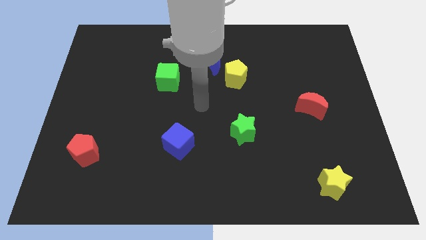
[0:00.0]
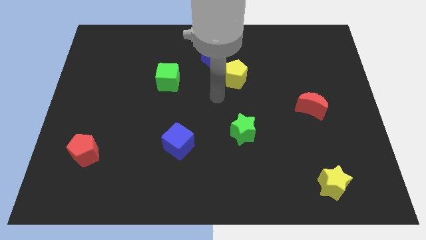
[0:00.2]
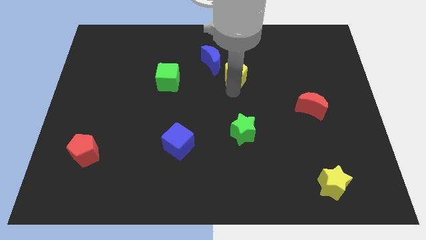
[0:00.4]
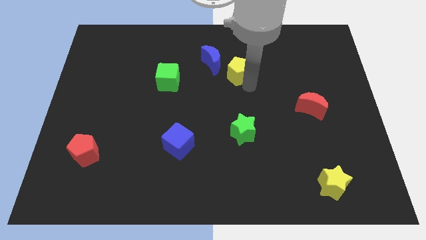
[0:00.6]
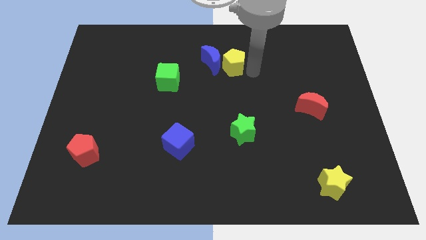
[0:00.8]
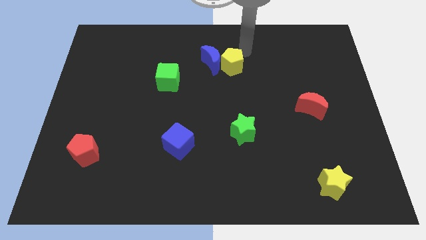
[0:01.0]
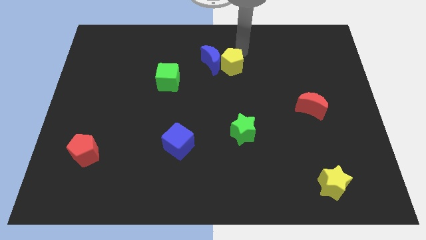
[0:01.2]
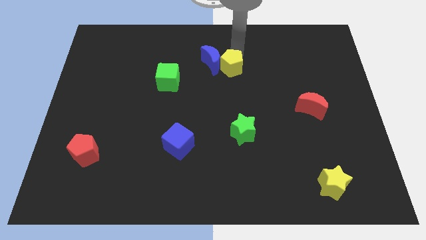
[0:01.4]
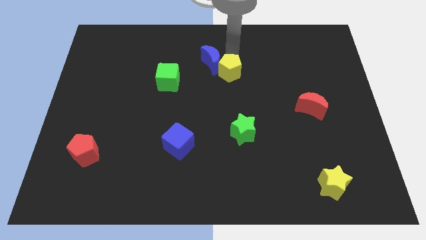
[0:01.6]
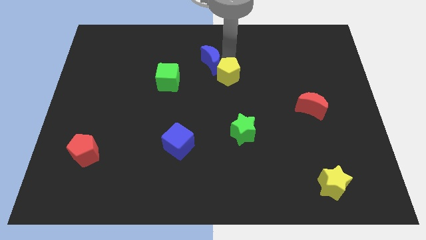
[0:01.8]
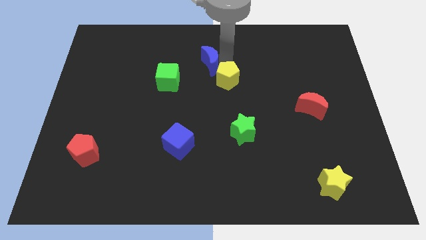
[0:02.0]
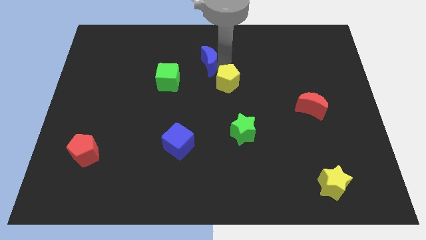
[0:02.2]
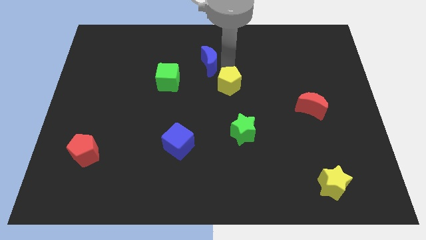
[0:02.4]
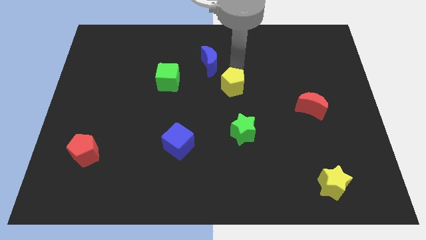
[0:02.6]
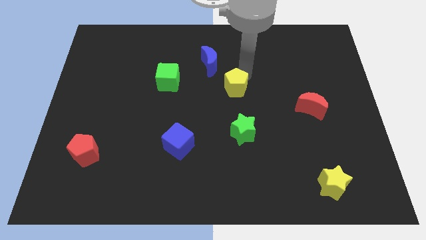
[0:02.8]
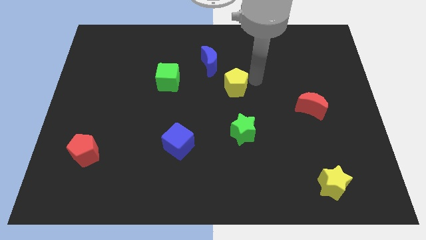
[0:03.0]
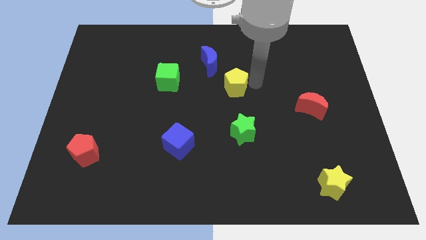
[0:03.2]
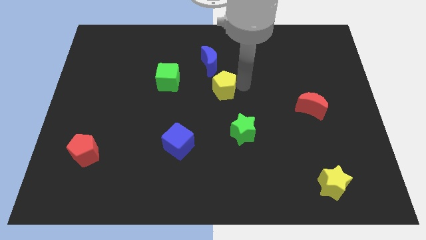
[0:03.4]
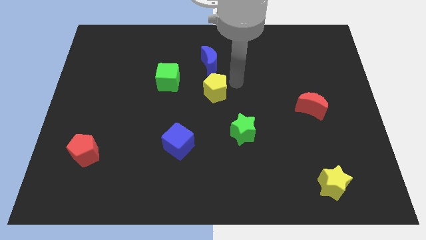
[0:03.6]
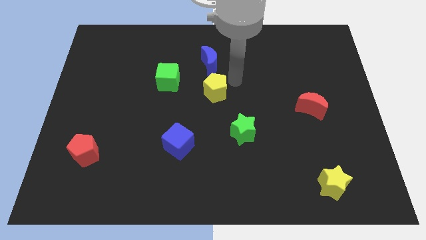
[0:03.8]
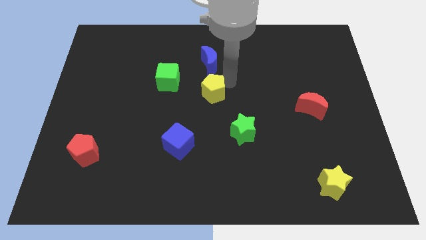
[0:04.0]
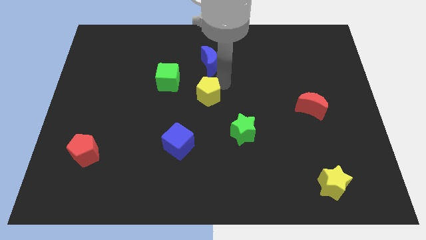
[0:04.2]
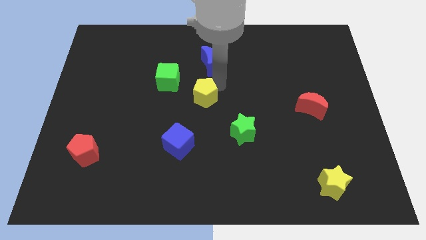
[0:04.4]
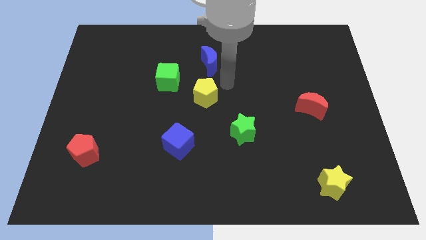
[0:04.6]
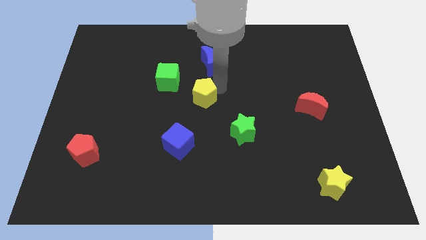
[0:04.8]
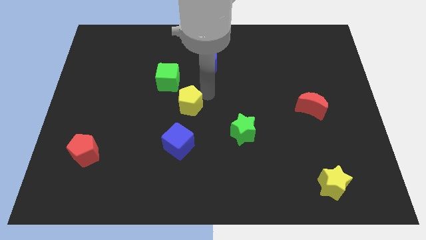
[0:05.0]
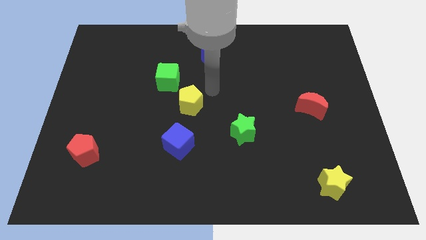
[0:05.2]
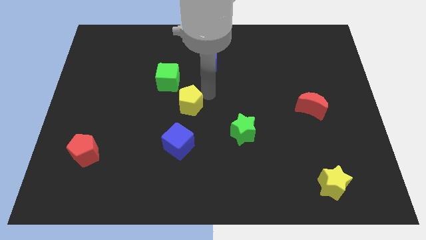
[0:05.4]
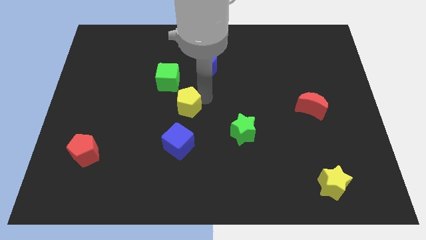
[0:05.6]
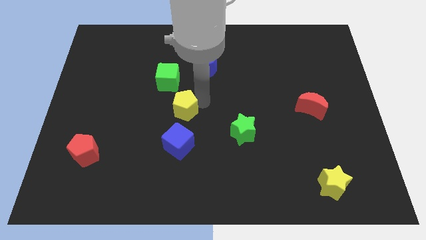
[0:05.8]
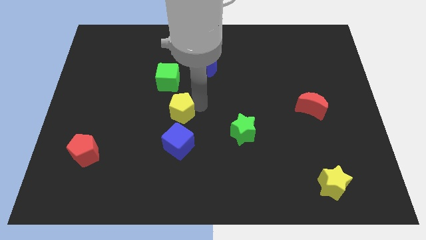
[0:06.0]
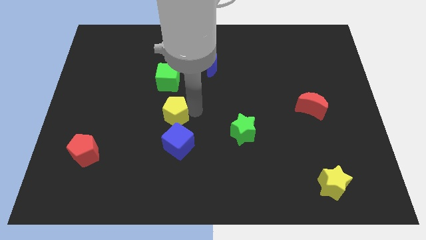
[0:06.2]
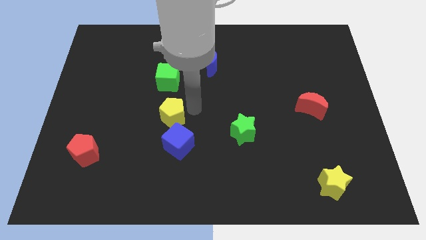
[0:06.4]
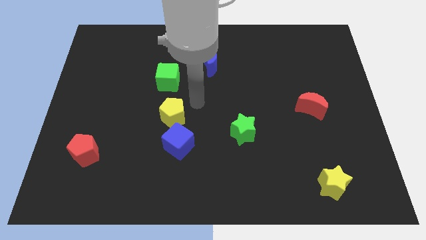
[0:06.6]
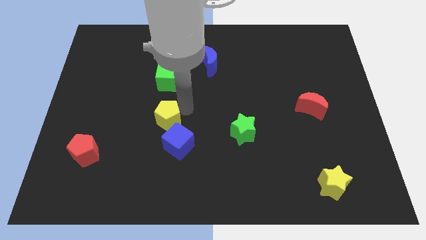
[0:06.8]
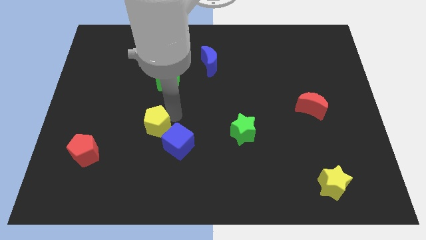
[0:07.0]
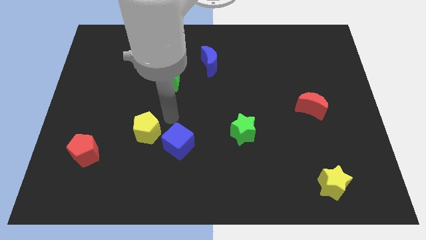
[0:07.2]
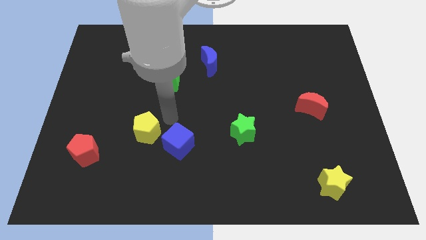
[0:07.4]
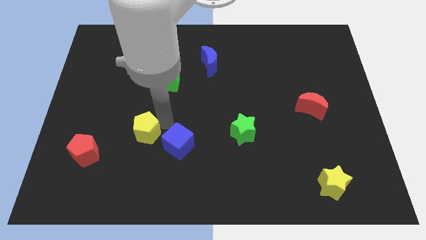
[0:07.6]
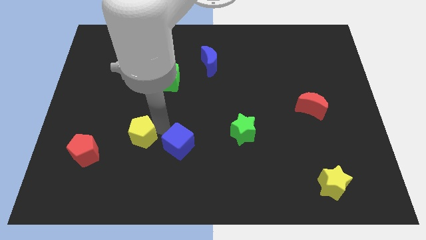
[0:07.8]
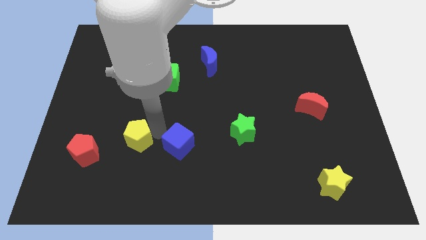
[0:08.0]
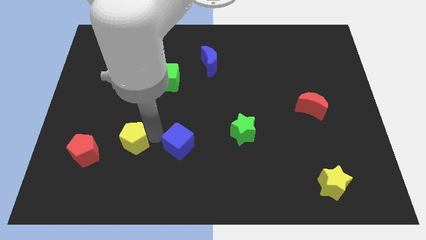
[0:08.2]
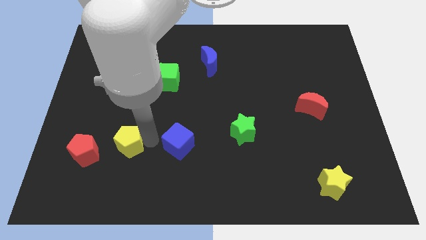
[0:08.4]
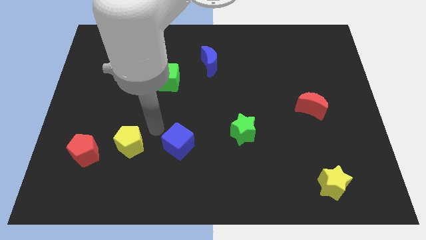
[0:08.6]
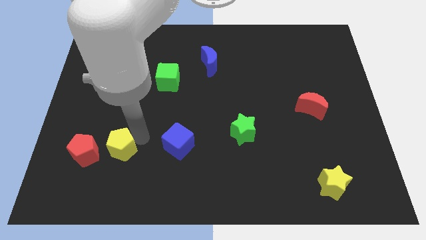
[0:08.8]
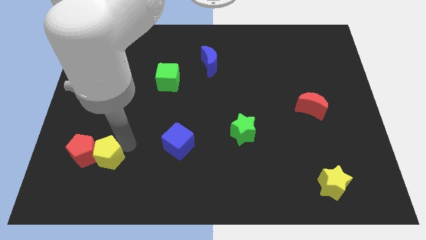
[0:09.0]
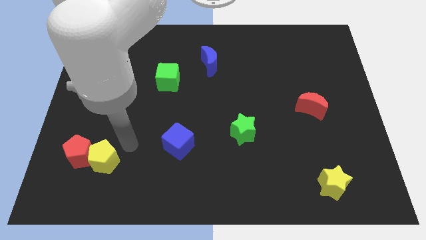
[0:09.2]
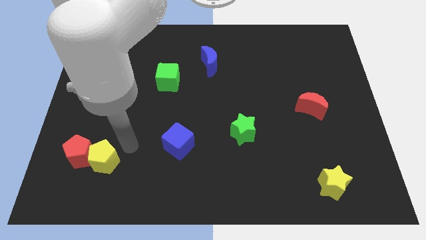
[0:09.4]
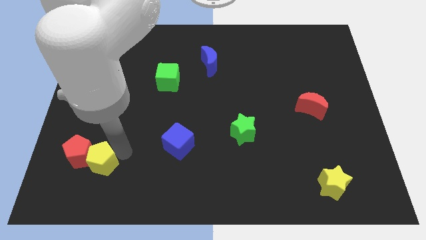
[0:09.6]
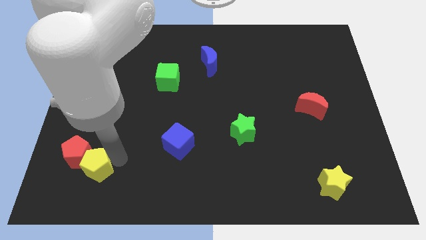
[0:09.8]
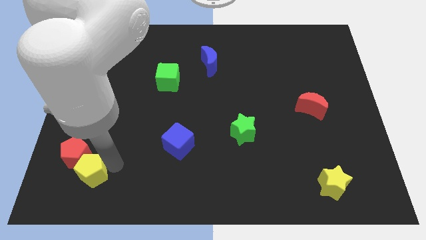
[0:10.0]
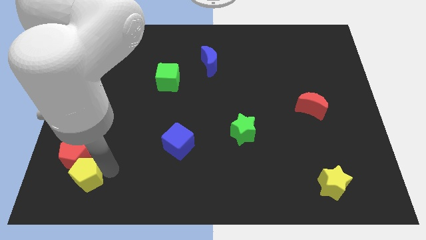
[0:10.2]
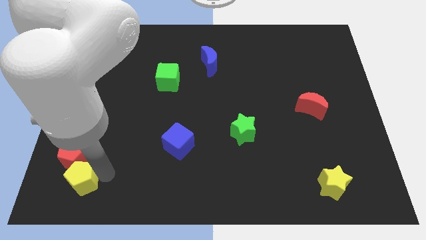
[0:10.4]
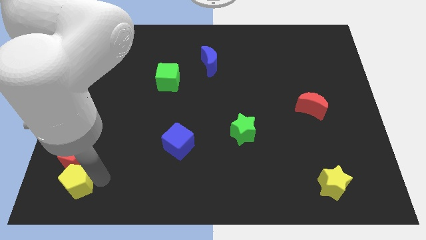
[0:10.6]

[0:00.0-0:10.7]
move the yellow pentagon to the bottom left corner

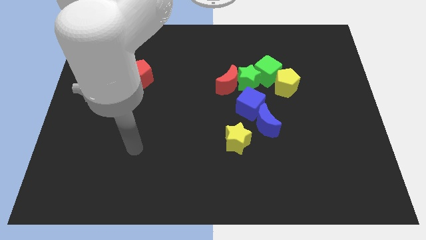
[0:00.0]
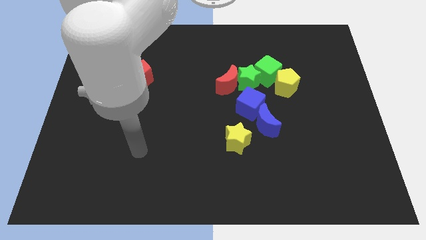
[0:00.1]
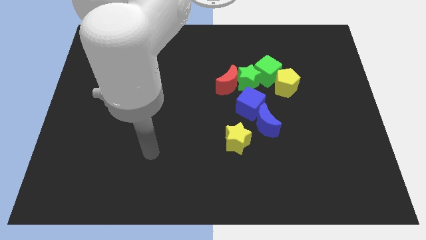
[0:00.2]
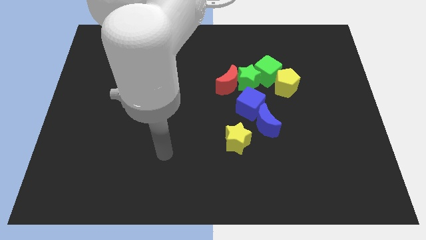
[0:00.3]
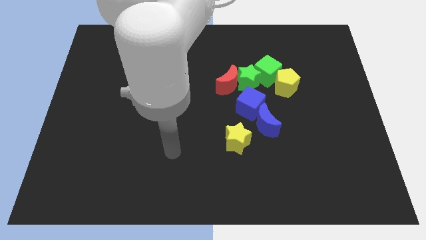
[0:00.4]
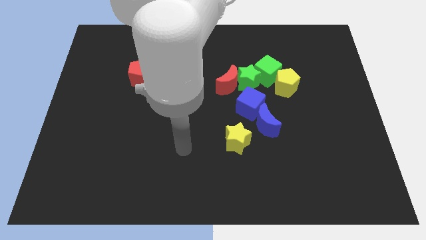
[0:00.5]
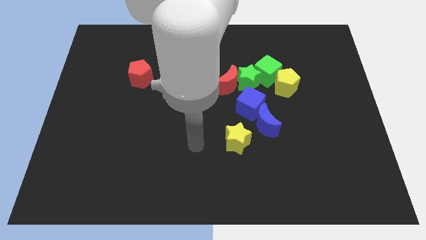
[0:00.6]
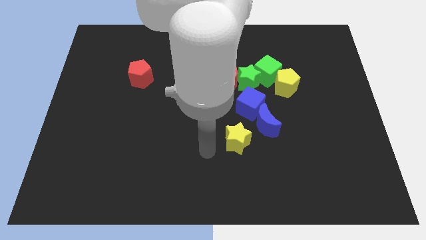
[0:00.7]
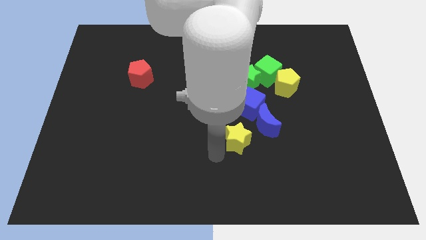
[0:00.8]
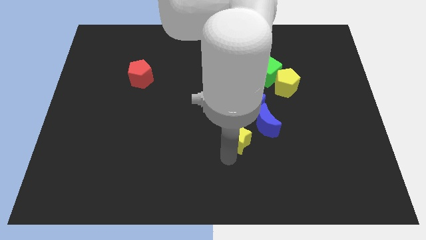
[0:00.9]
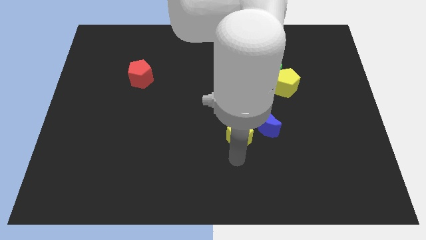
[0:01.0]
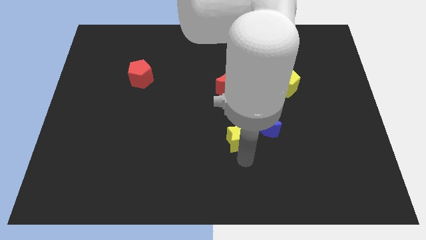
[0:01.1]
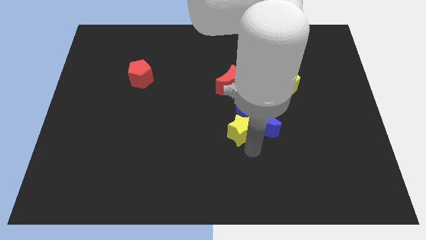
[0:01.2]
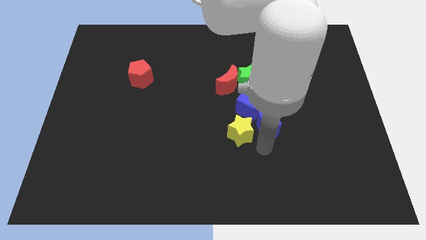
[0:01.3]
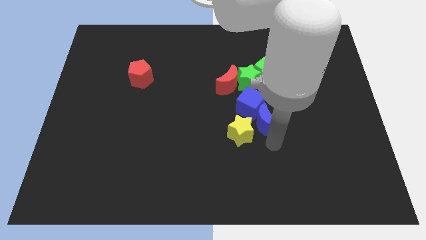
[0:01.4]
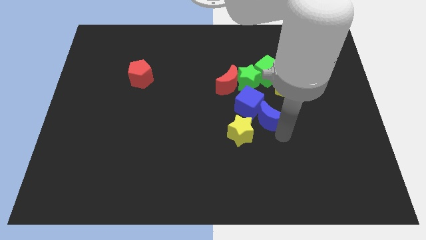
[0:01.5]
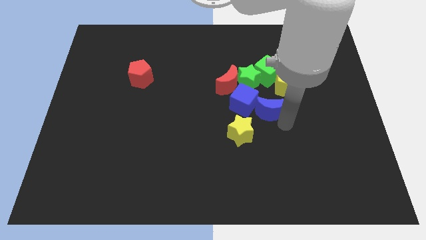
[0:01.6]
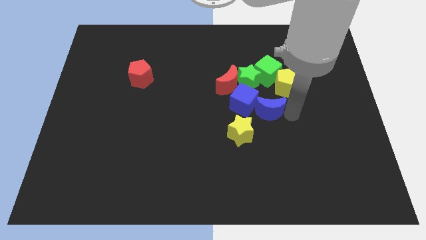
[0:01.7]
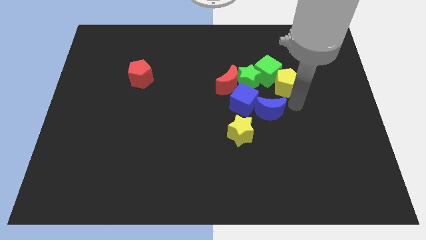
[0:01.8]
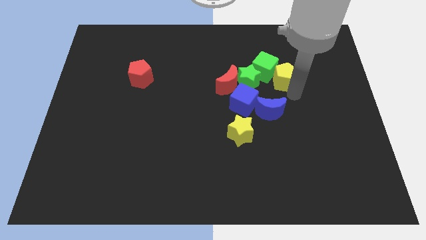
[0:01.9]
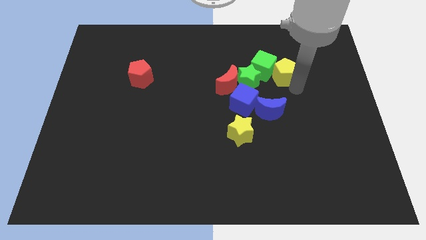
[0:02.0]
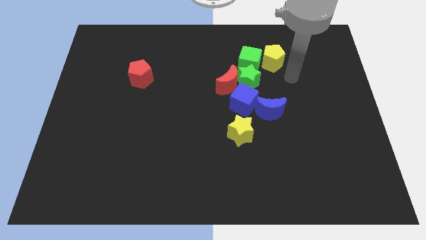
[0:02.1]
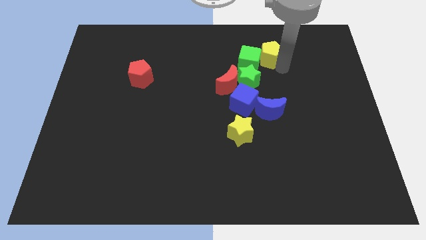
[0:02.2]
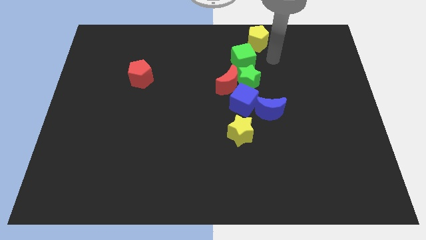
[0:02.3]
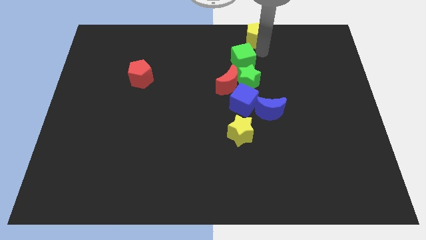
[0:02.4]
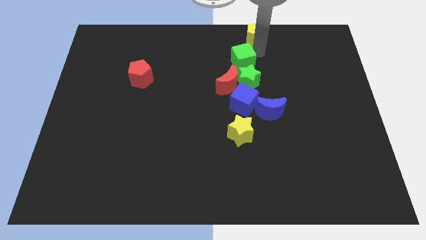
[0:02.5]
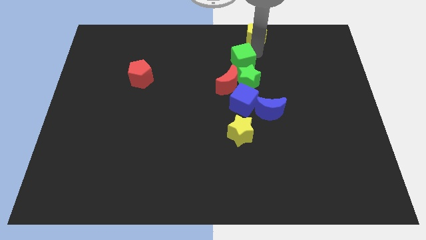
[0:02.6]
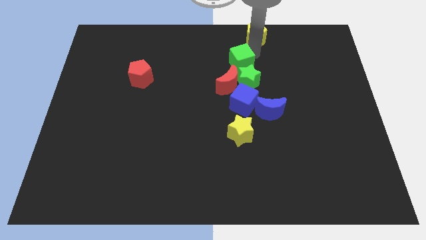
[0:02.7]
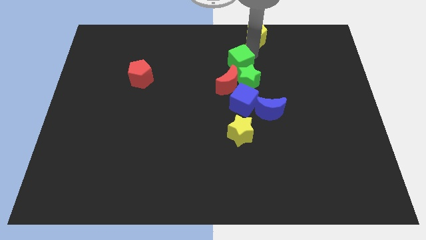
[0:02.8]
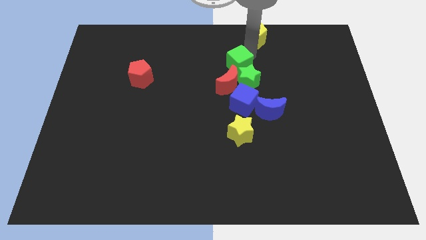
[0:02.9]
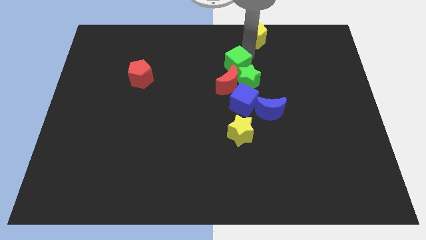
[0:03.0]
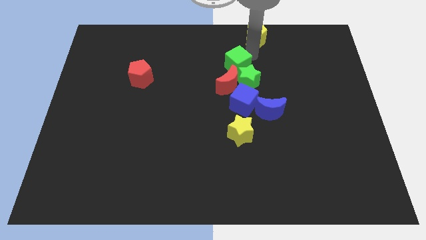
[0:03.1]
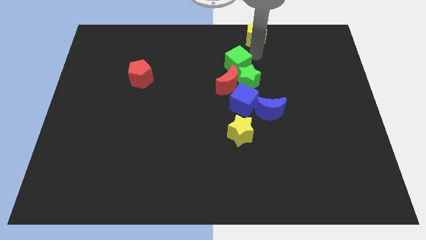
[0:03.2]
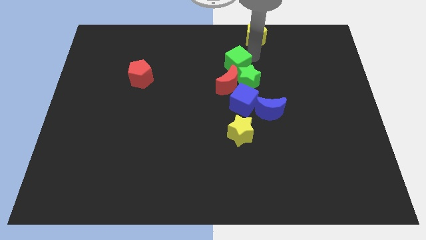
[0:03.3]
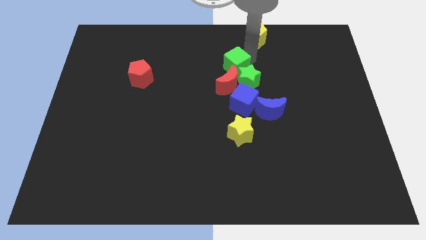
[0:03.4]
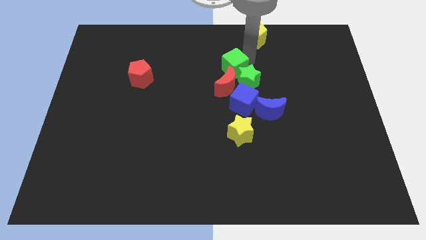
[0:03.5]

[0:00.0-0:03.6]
push the green cube to the center of the board
